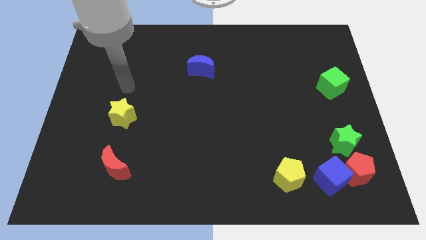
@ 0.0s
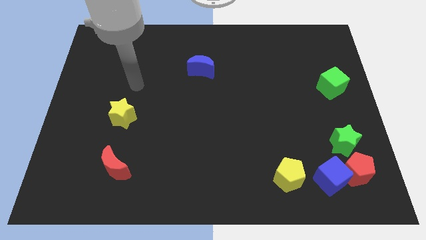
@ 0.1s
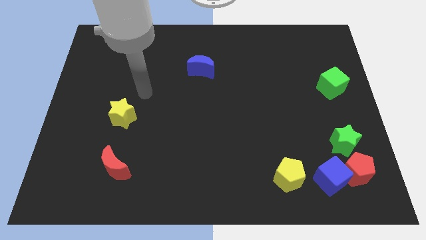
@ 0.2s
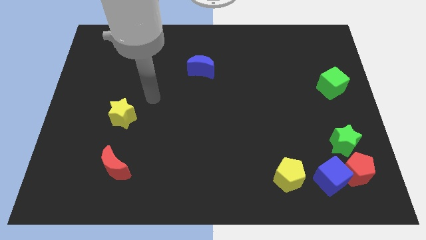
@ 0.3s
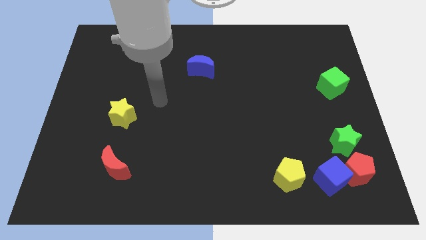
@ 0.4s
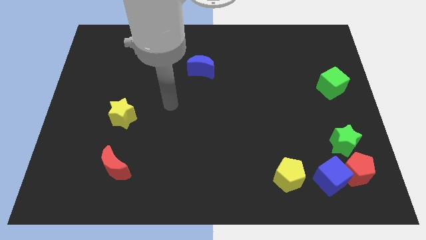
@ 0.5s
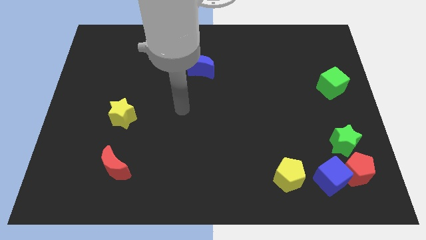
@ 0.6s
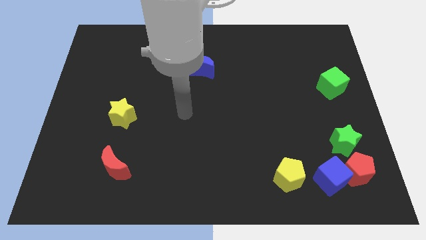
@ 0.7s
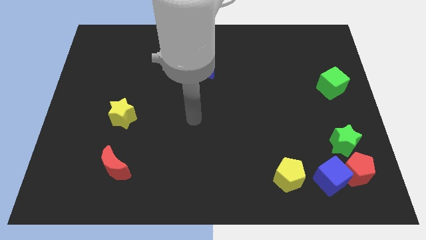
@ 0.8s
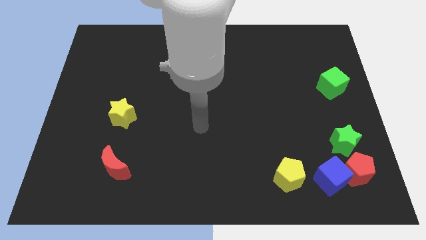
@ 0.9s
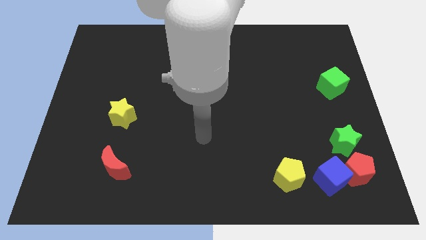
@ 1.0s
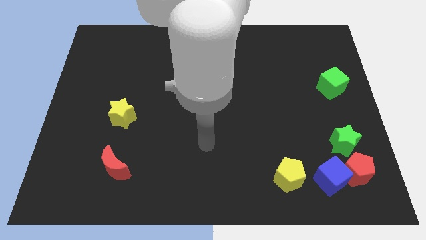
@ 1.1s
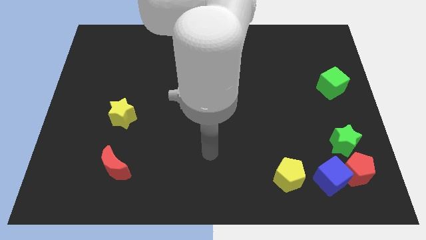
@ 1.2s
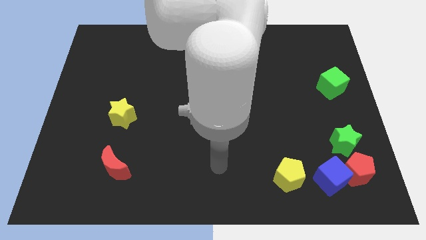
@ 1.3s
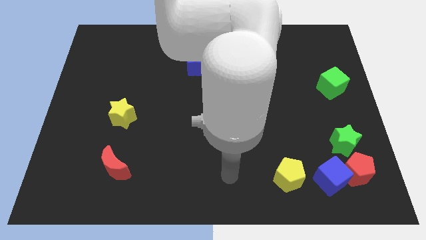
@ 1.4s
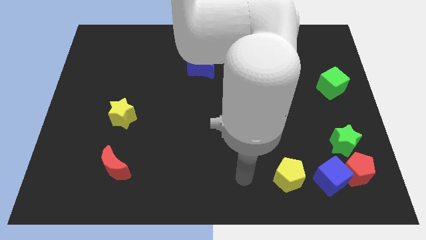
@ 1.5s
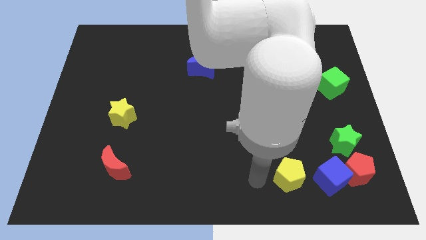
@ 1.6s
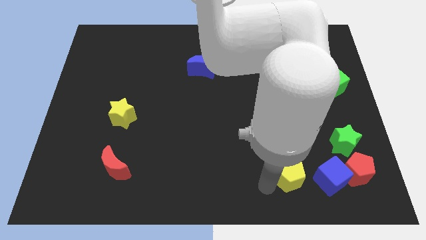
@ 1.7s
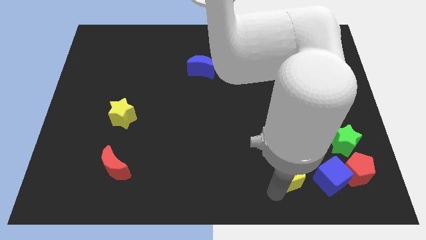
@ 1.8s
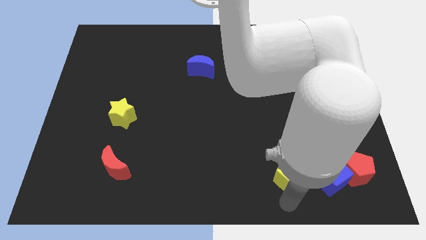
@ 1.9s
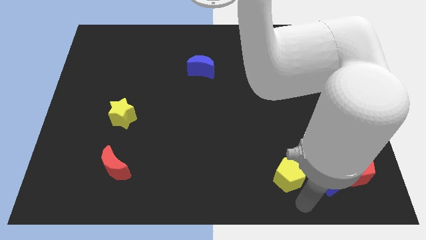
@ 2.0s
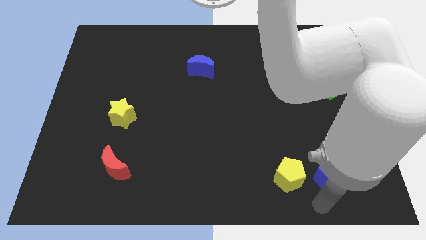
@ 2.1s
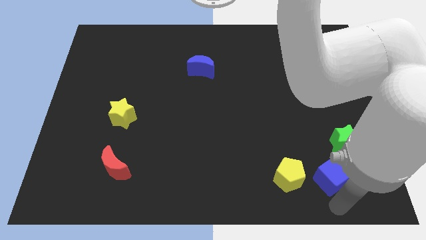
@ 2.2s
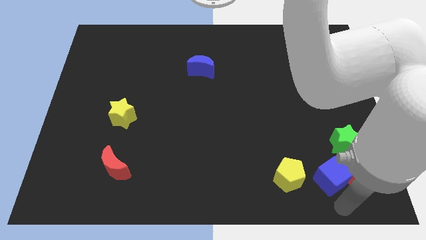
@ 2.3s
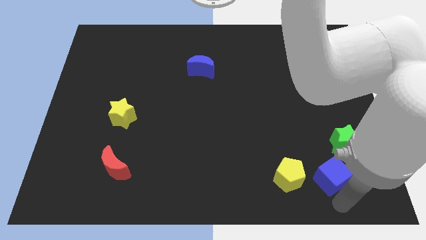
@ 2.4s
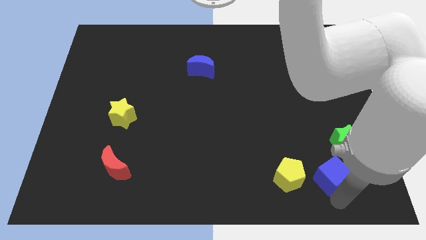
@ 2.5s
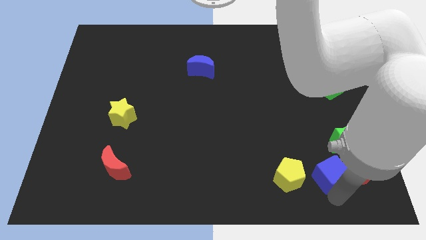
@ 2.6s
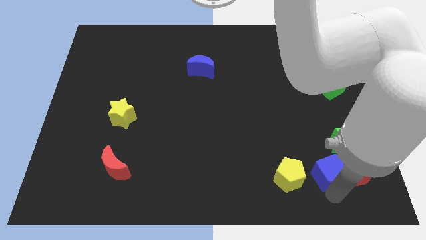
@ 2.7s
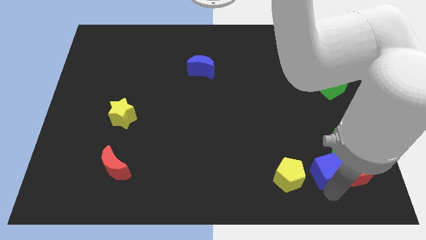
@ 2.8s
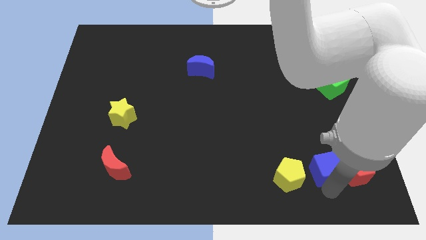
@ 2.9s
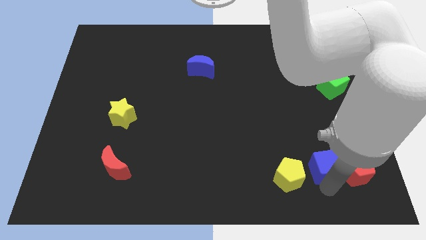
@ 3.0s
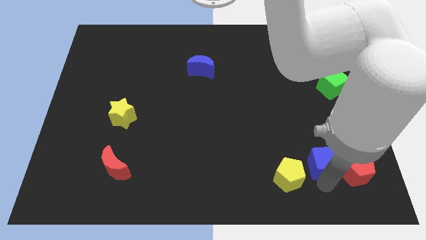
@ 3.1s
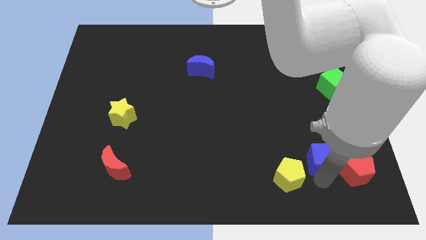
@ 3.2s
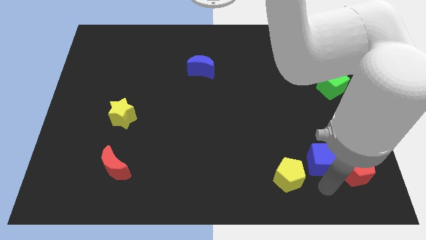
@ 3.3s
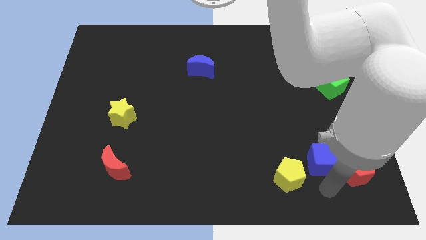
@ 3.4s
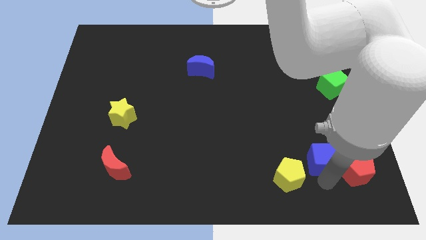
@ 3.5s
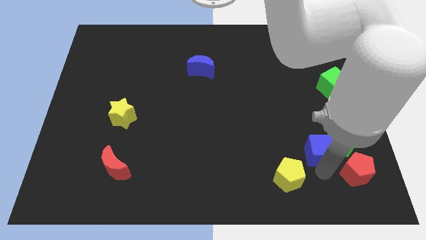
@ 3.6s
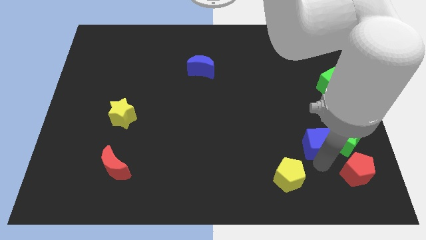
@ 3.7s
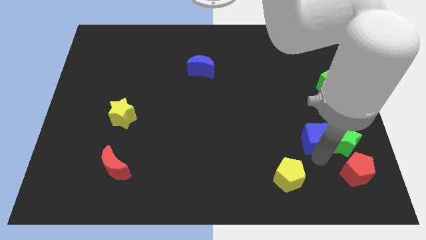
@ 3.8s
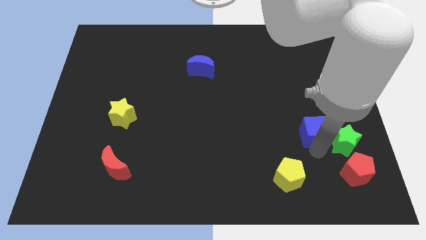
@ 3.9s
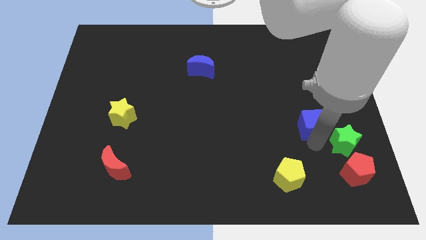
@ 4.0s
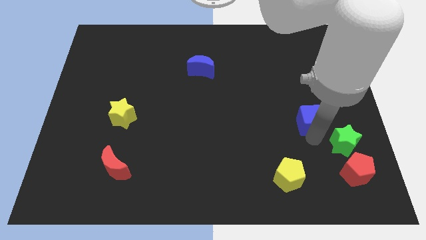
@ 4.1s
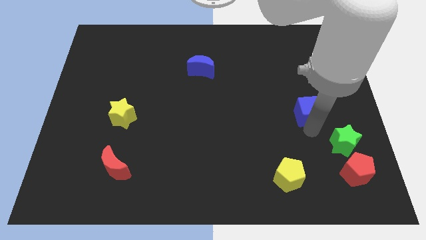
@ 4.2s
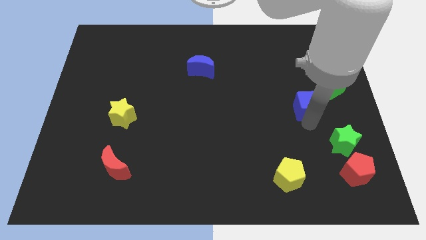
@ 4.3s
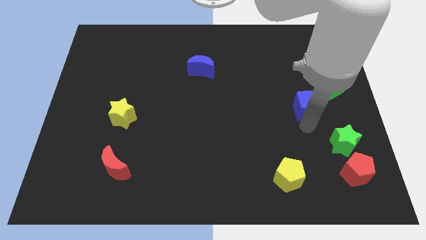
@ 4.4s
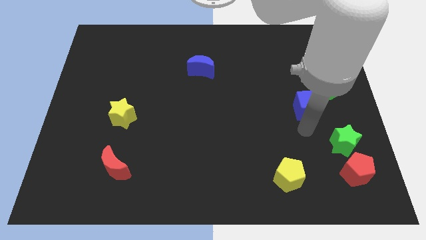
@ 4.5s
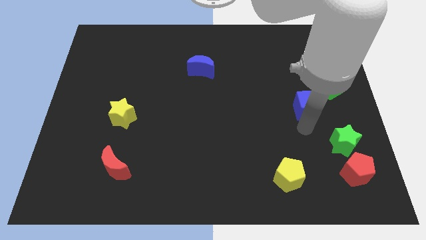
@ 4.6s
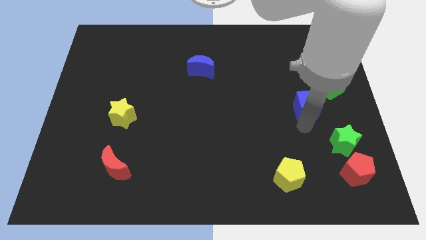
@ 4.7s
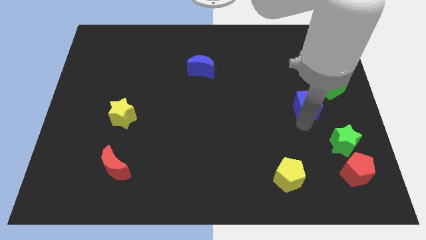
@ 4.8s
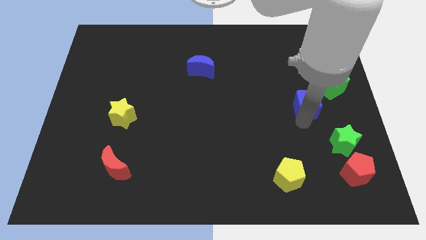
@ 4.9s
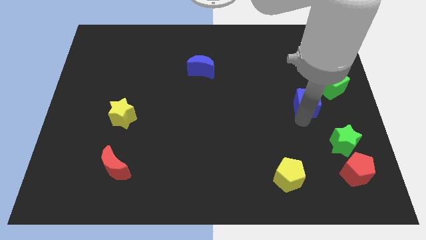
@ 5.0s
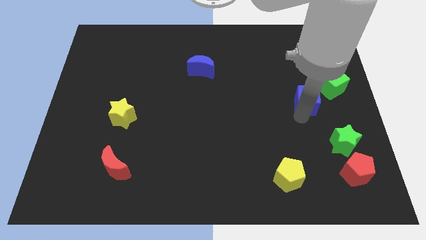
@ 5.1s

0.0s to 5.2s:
push the blue cube upwards

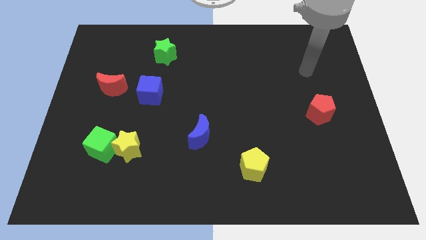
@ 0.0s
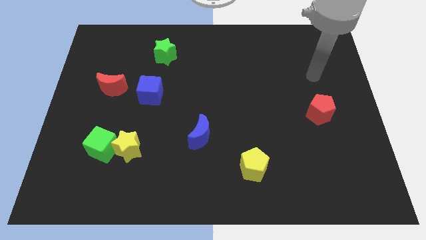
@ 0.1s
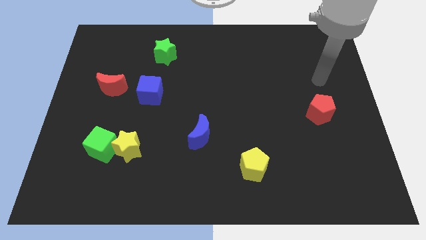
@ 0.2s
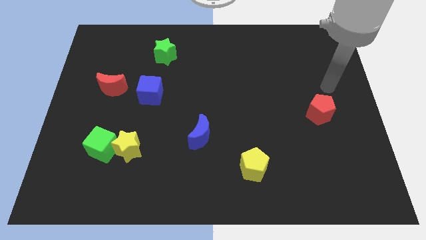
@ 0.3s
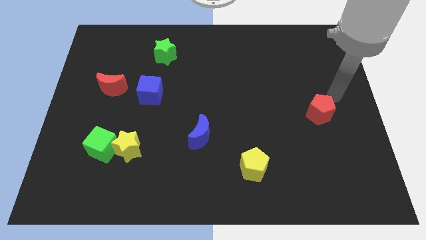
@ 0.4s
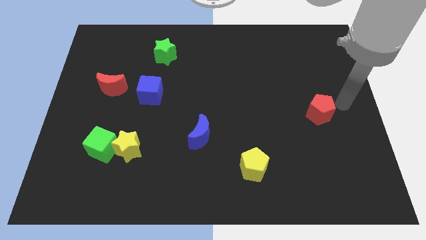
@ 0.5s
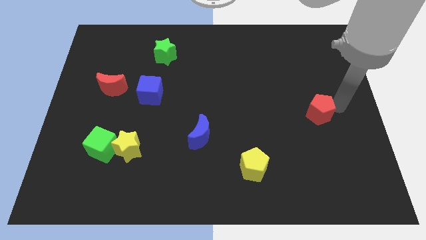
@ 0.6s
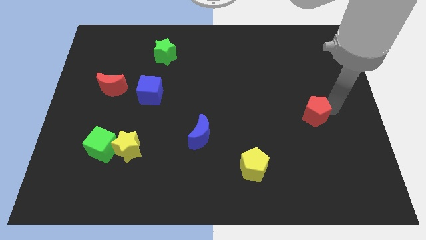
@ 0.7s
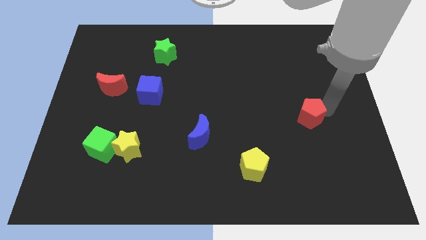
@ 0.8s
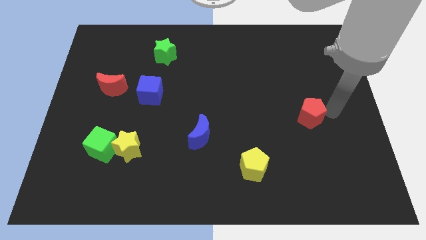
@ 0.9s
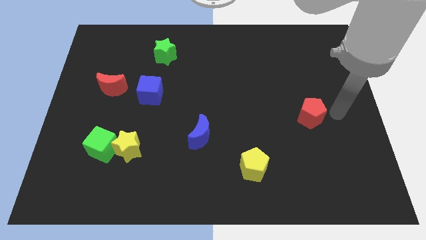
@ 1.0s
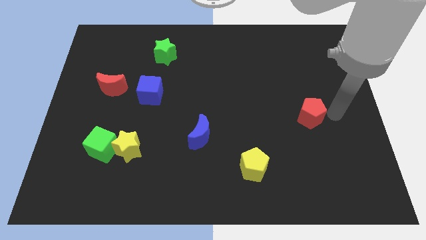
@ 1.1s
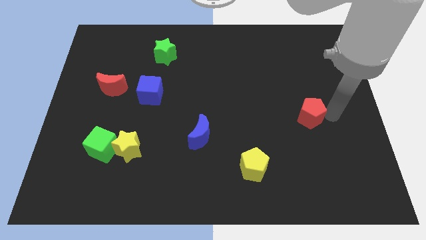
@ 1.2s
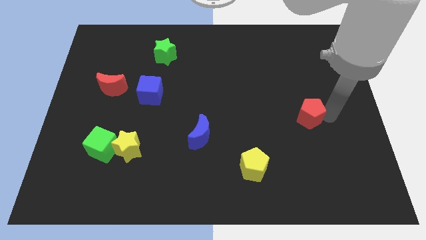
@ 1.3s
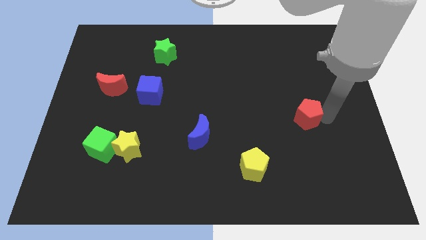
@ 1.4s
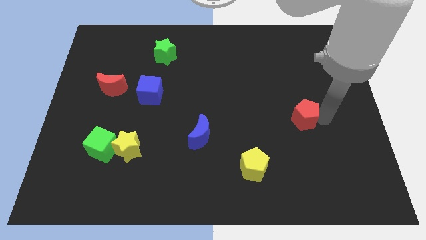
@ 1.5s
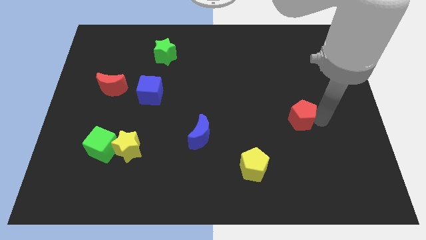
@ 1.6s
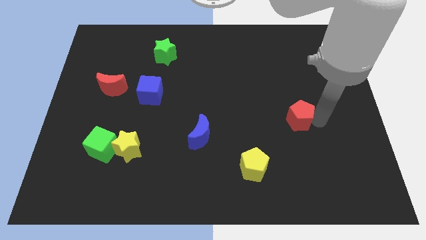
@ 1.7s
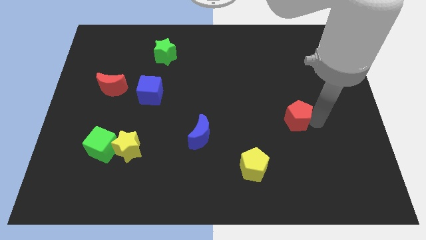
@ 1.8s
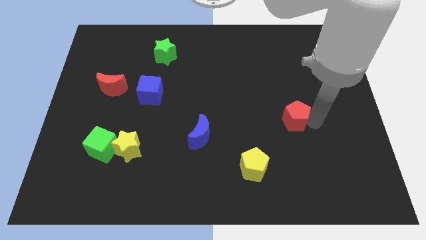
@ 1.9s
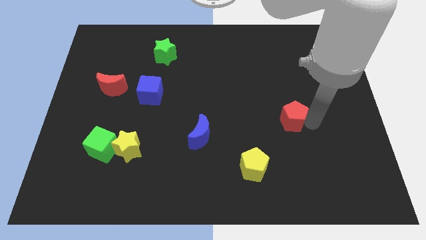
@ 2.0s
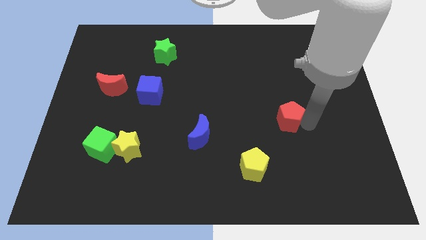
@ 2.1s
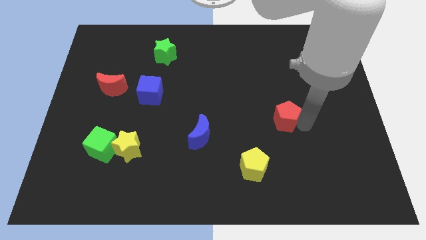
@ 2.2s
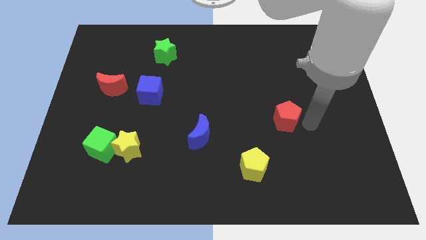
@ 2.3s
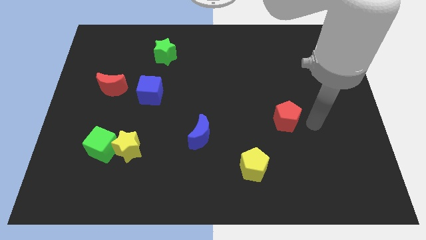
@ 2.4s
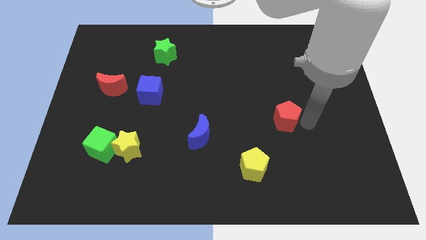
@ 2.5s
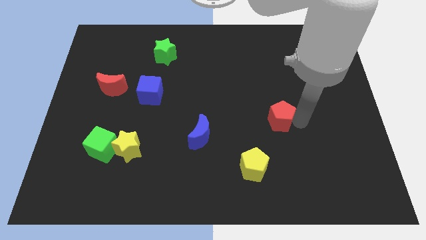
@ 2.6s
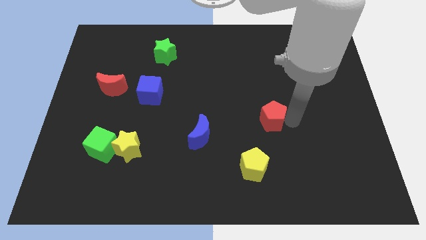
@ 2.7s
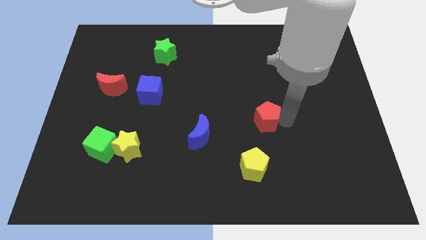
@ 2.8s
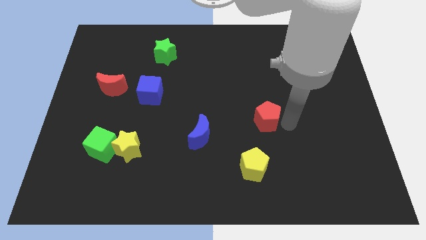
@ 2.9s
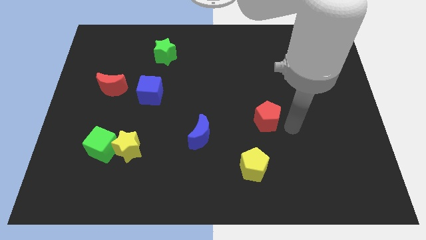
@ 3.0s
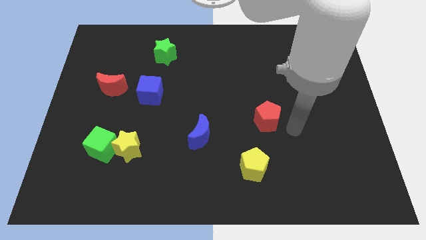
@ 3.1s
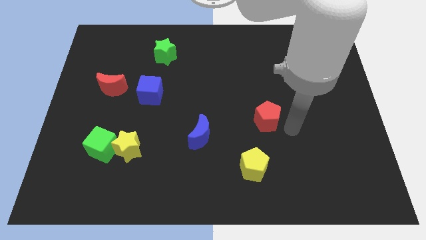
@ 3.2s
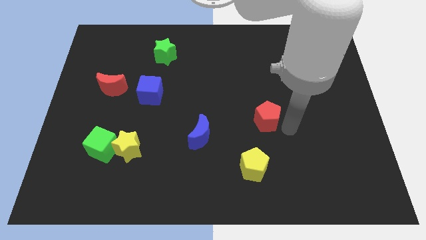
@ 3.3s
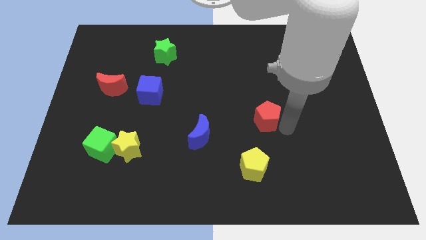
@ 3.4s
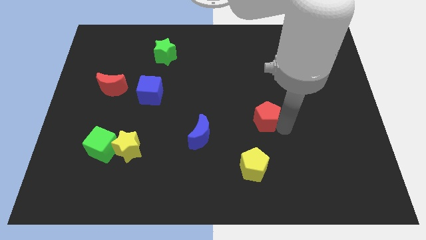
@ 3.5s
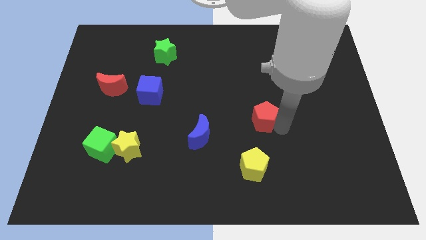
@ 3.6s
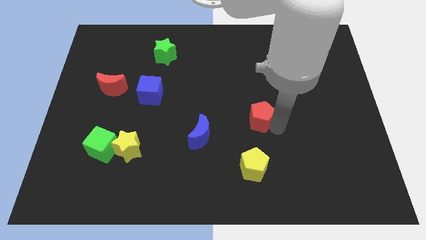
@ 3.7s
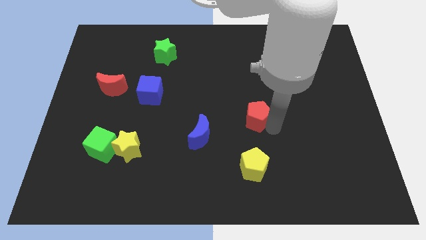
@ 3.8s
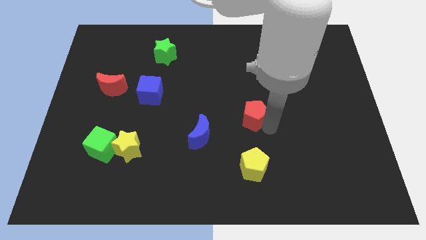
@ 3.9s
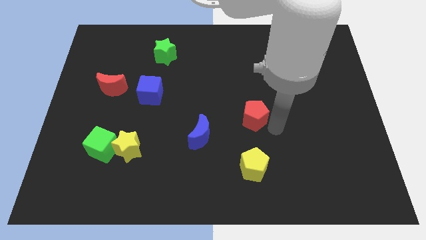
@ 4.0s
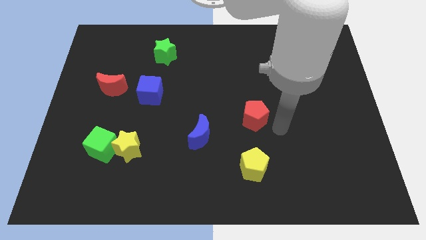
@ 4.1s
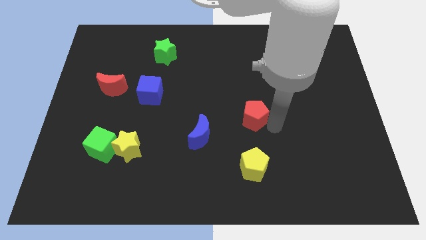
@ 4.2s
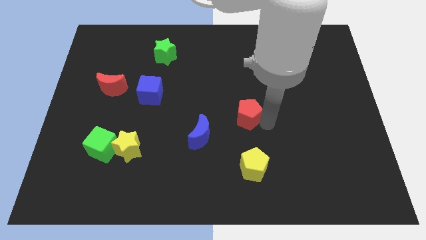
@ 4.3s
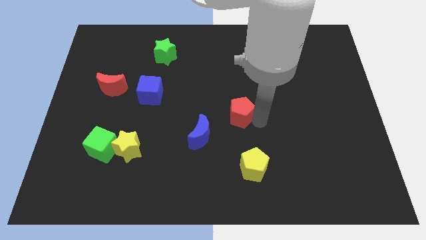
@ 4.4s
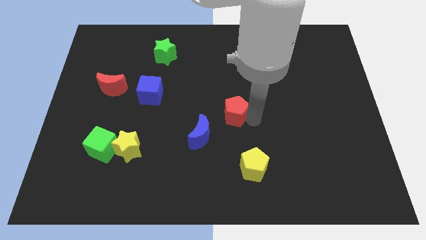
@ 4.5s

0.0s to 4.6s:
move the red pentagon to the left
